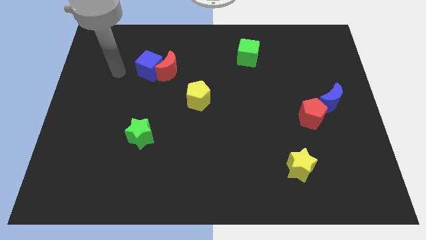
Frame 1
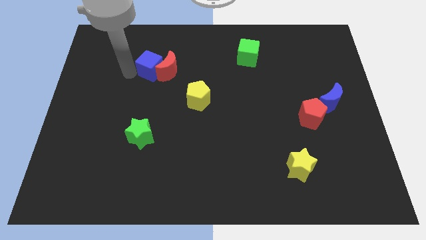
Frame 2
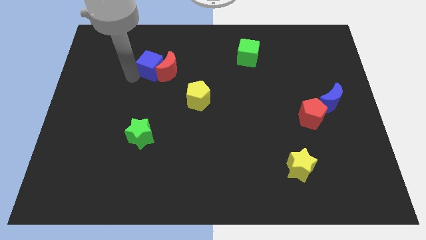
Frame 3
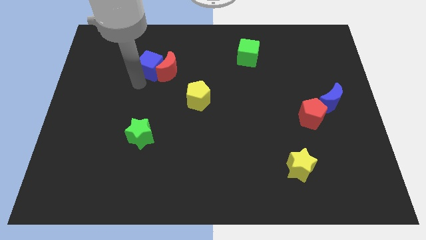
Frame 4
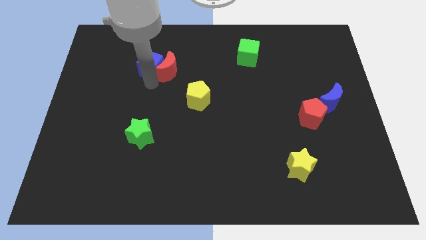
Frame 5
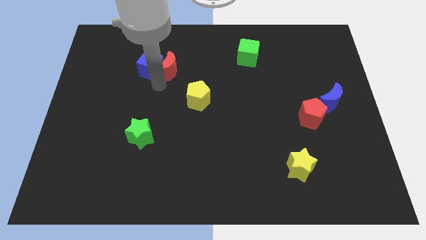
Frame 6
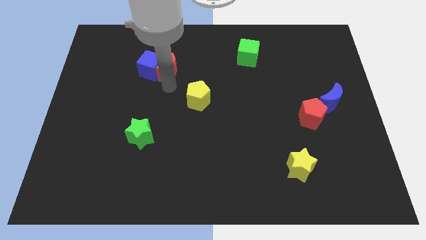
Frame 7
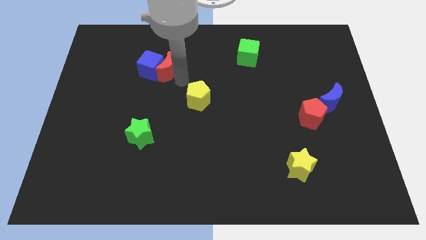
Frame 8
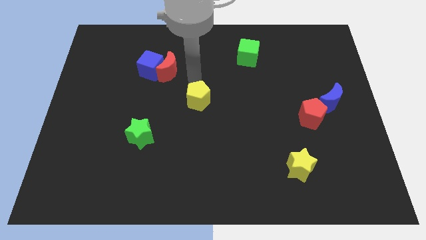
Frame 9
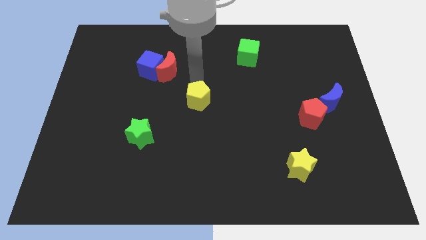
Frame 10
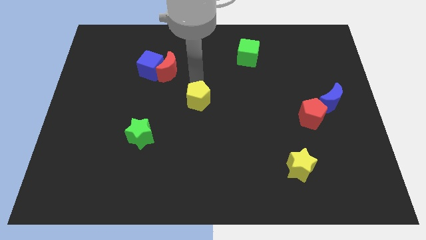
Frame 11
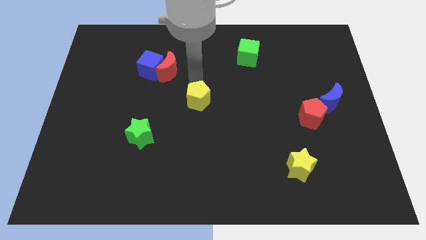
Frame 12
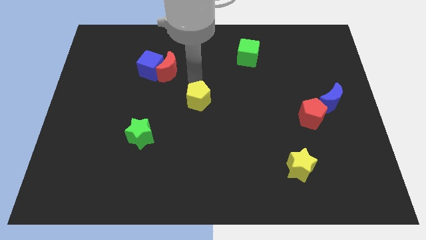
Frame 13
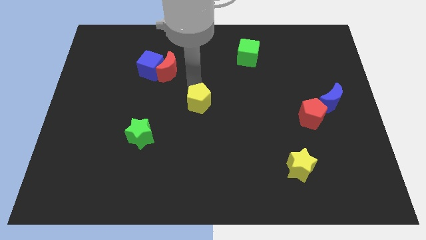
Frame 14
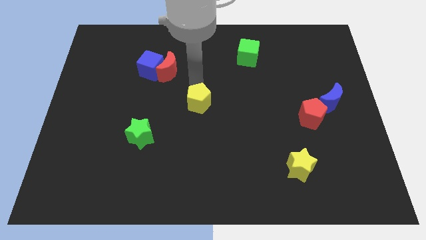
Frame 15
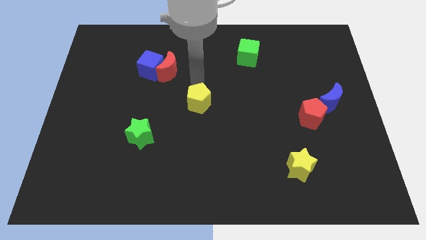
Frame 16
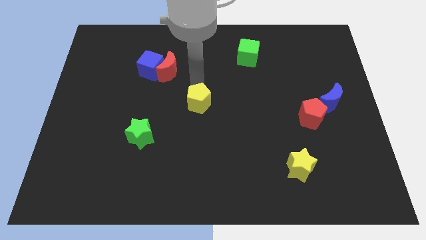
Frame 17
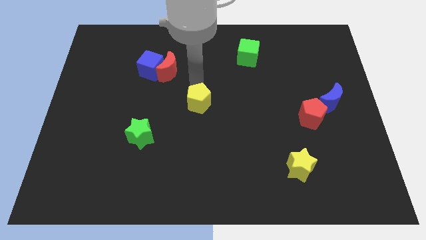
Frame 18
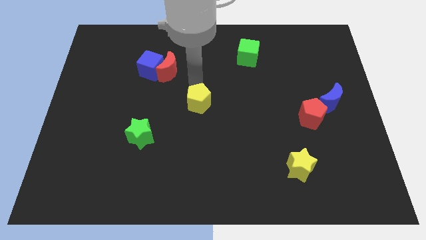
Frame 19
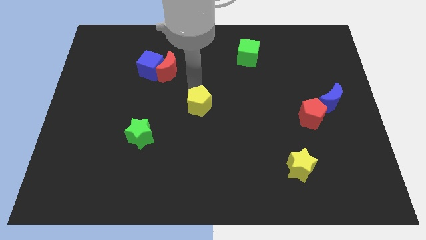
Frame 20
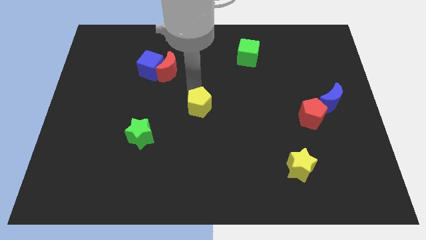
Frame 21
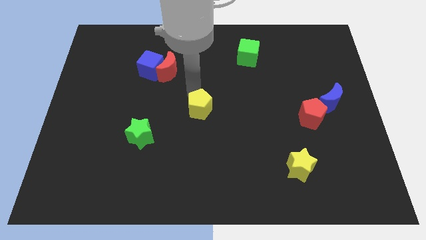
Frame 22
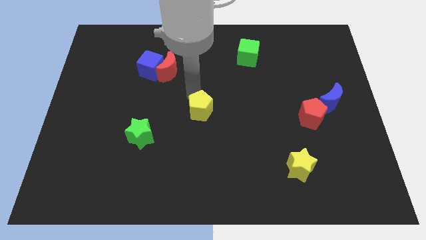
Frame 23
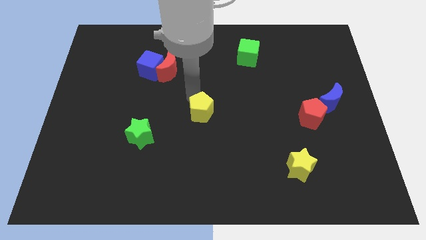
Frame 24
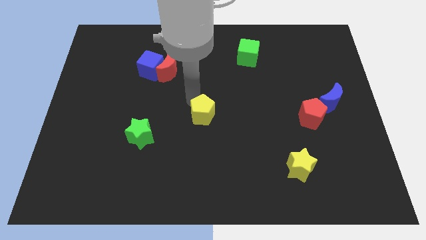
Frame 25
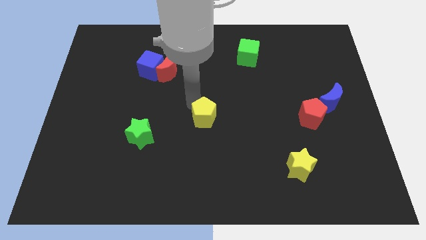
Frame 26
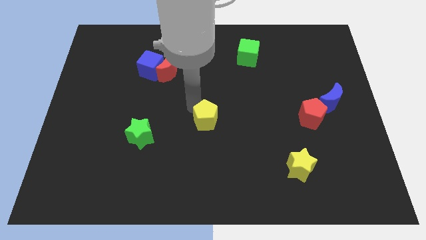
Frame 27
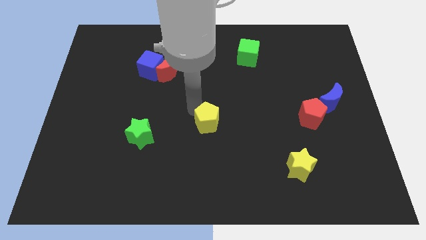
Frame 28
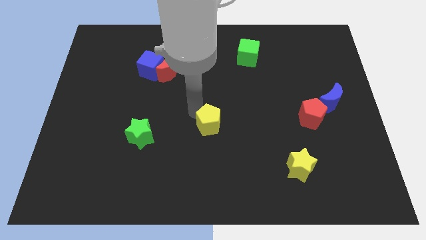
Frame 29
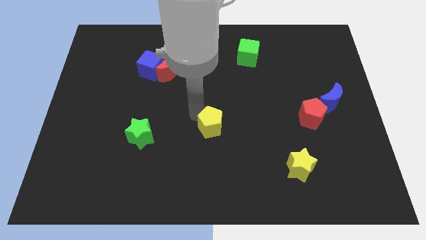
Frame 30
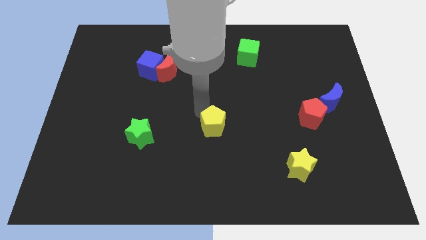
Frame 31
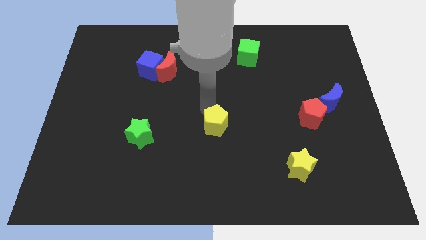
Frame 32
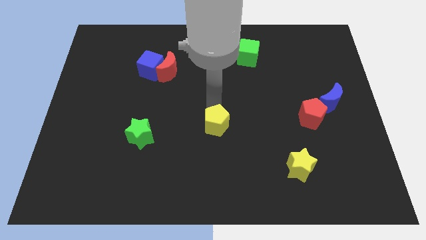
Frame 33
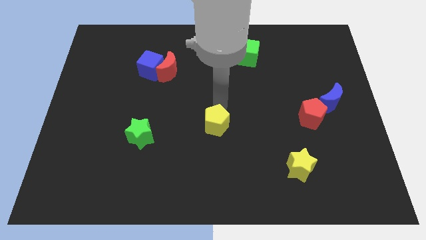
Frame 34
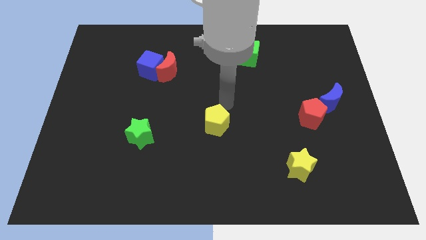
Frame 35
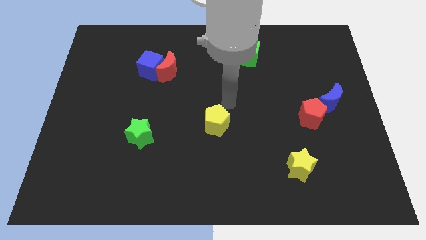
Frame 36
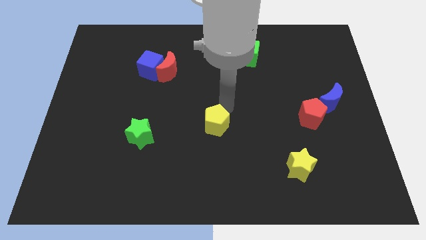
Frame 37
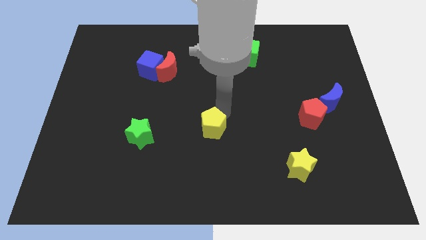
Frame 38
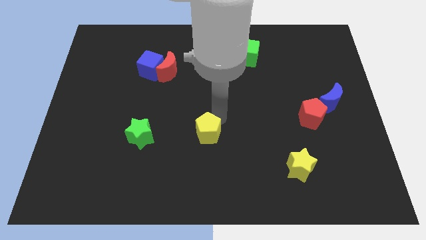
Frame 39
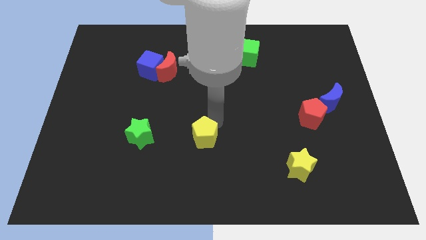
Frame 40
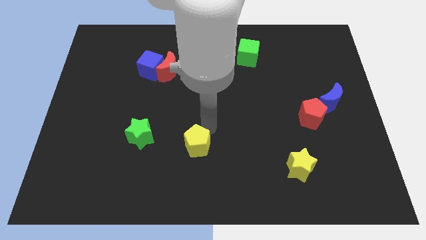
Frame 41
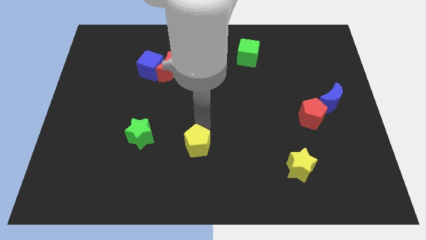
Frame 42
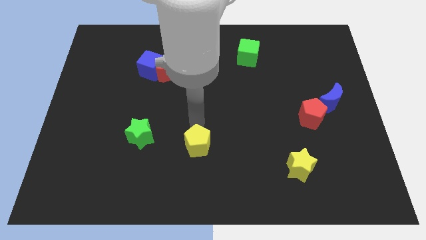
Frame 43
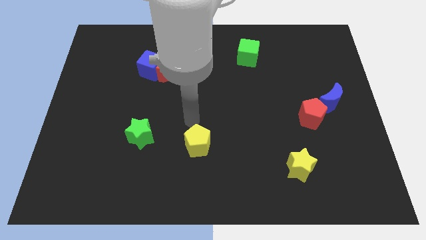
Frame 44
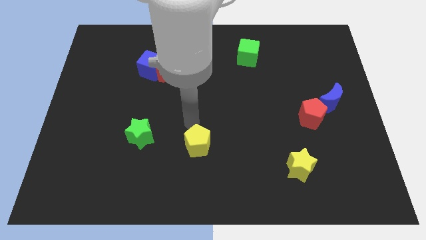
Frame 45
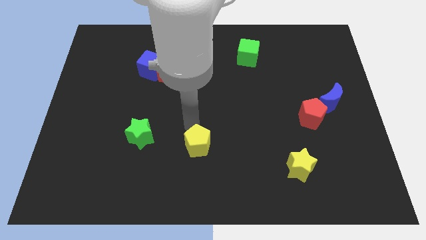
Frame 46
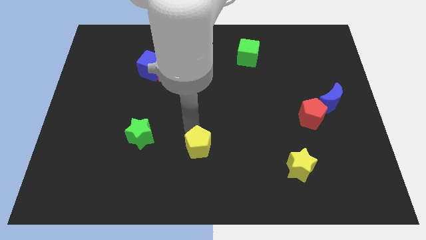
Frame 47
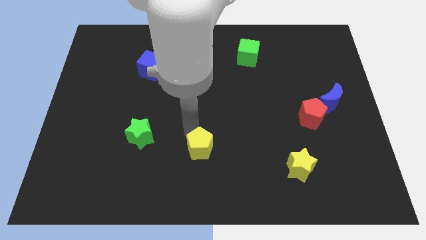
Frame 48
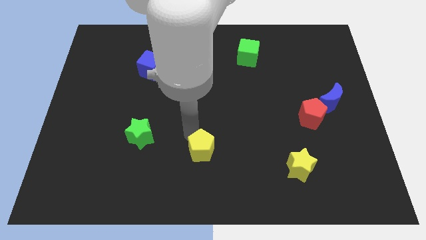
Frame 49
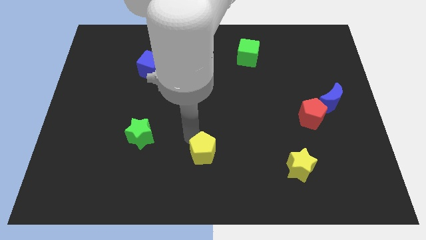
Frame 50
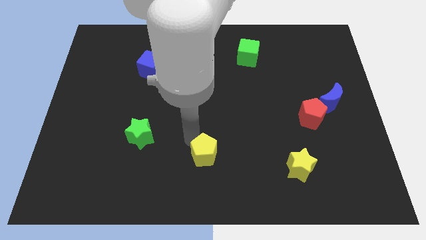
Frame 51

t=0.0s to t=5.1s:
push the yellow pentagon to the bottom side

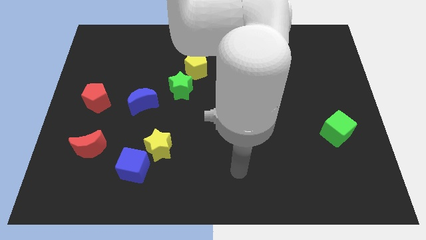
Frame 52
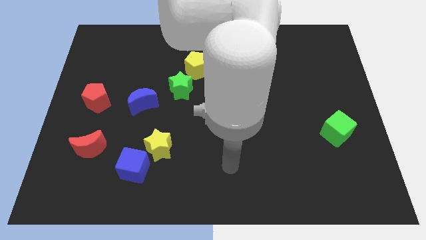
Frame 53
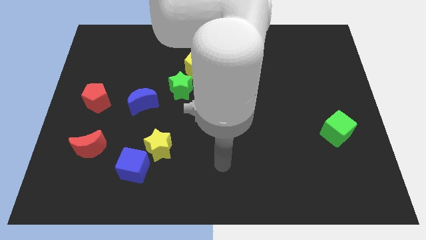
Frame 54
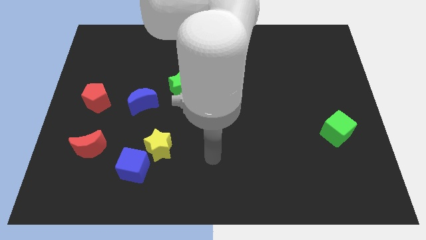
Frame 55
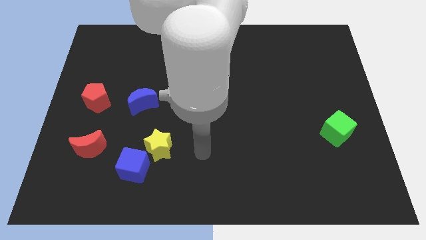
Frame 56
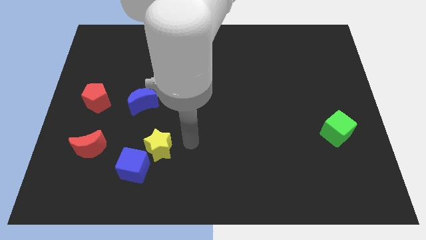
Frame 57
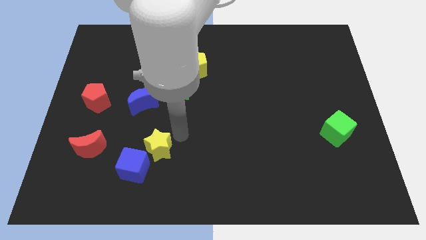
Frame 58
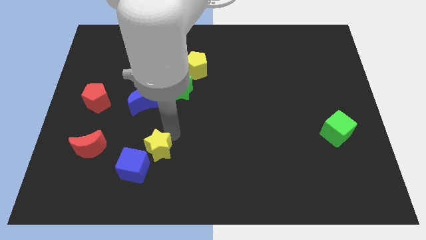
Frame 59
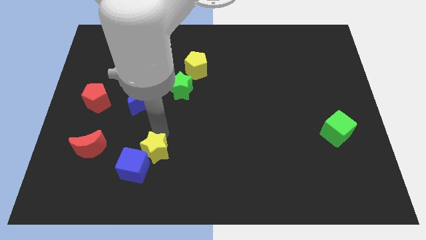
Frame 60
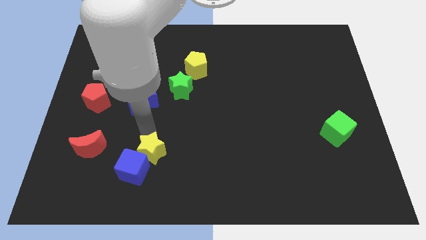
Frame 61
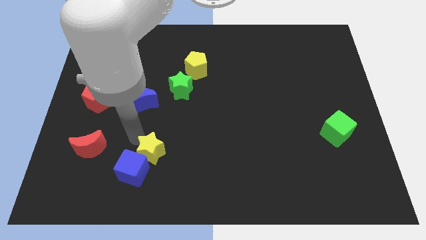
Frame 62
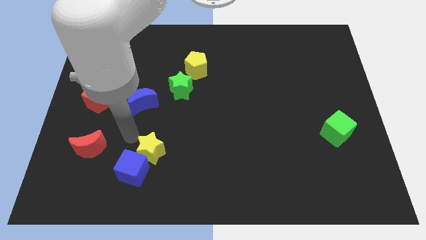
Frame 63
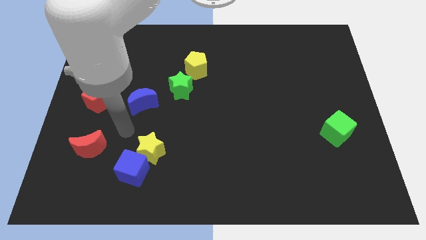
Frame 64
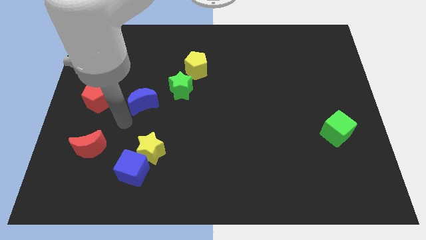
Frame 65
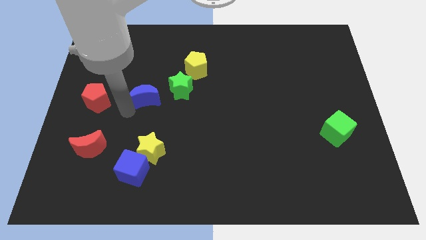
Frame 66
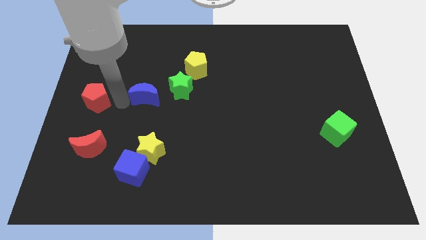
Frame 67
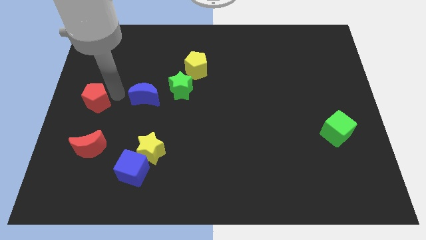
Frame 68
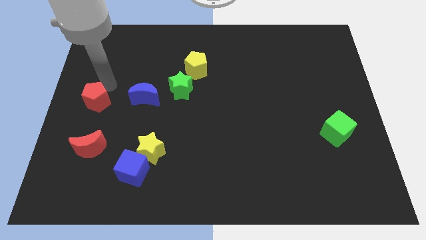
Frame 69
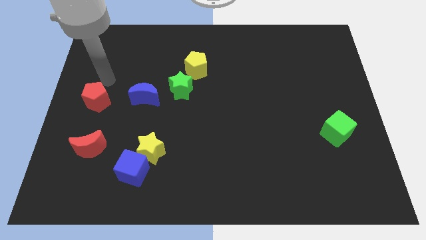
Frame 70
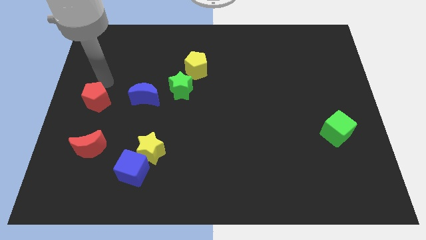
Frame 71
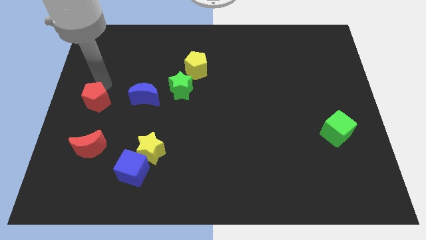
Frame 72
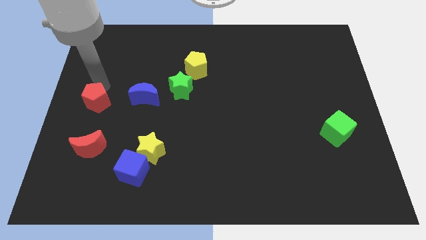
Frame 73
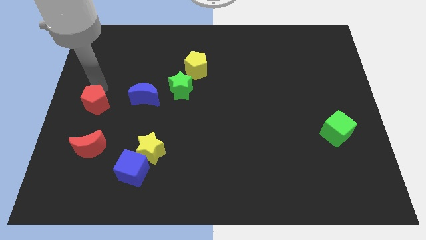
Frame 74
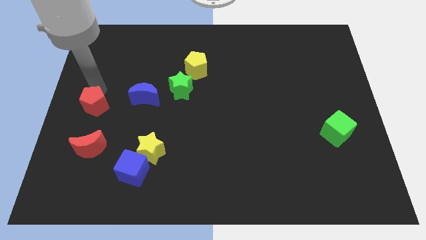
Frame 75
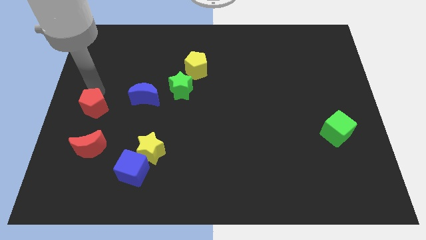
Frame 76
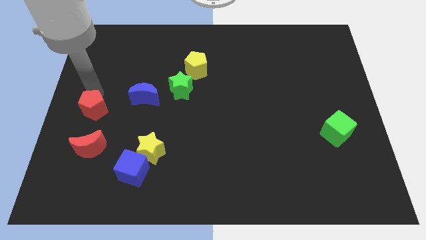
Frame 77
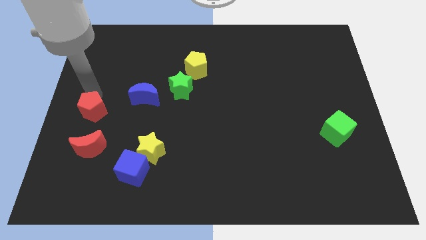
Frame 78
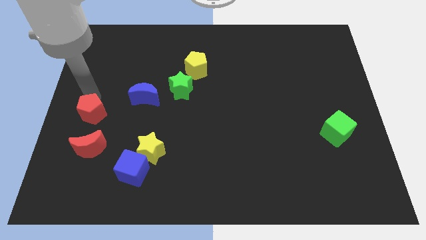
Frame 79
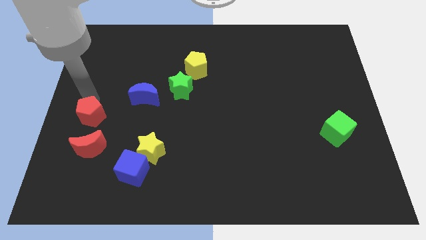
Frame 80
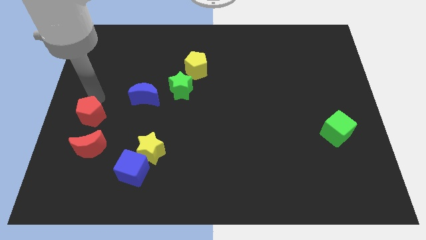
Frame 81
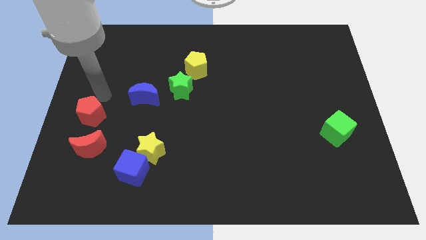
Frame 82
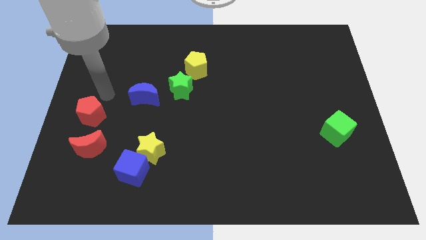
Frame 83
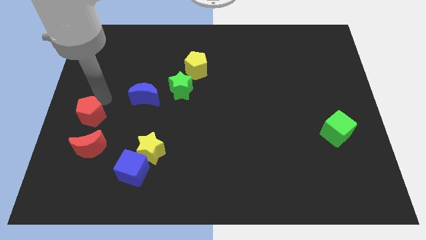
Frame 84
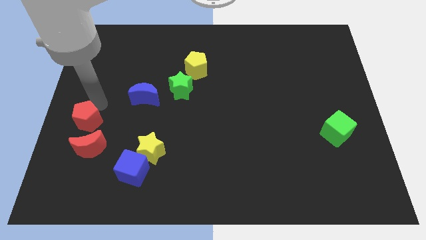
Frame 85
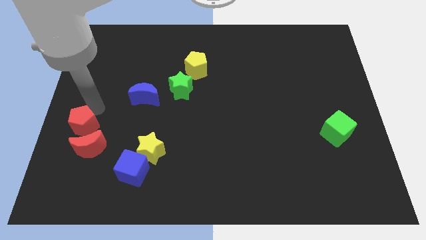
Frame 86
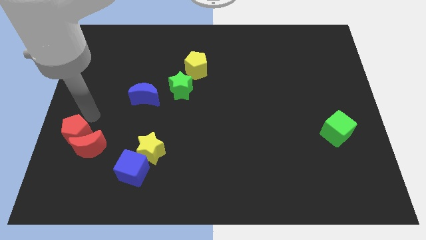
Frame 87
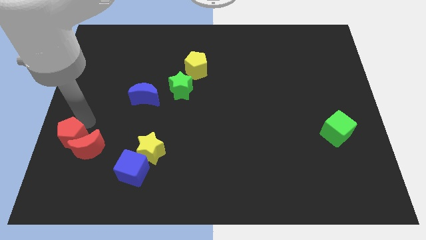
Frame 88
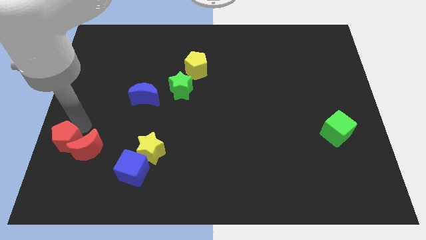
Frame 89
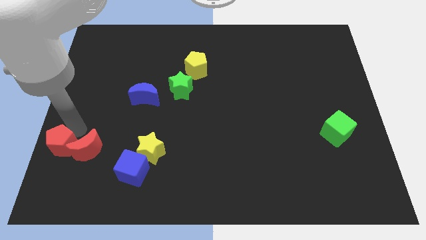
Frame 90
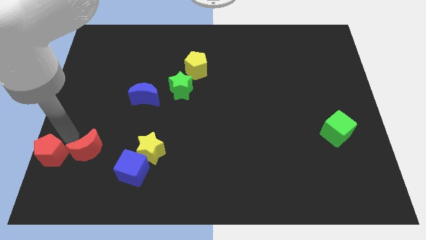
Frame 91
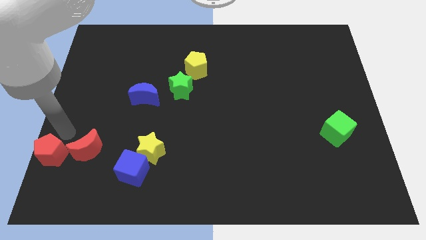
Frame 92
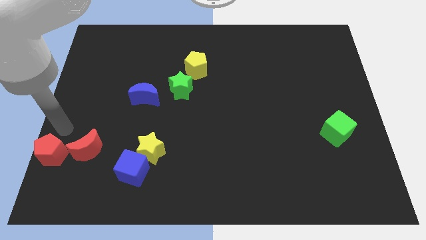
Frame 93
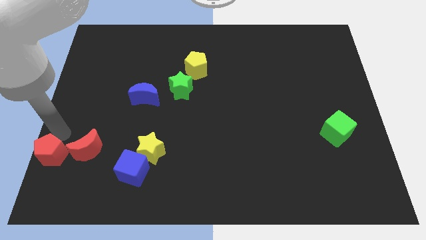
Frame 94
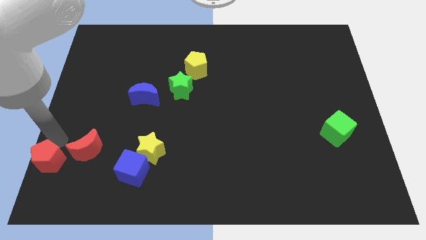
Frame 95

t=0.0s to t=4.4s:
slide the red pentagon to the lower left corner
